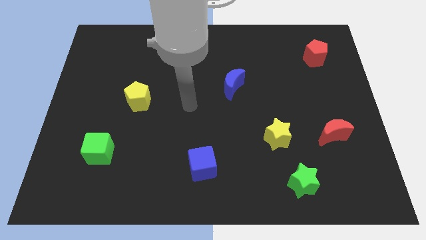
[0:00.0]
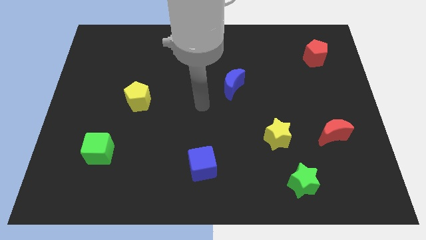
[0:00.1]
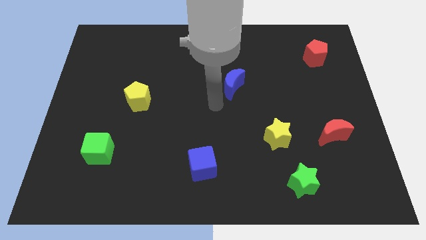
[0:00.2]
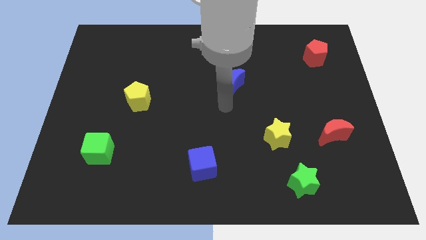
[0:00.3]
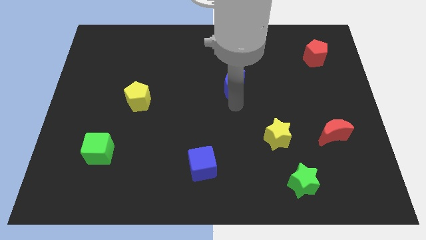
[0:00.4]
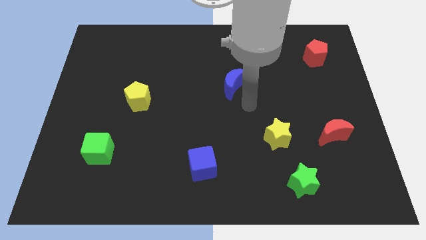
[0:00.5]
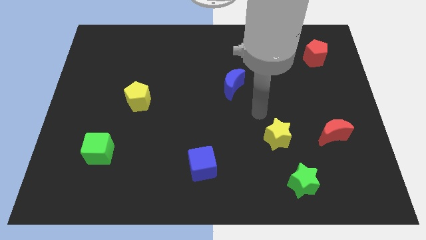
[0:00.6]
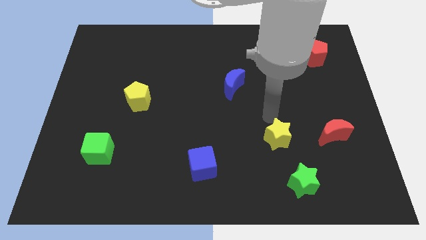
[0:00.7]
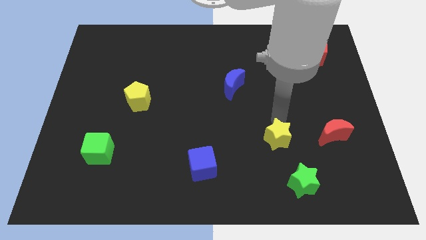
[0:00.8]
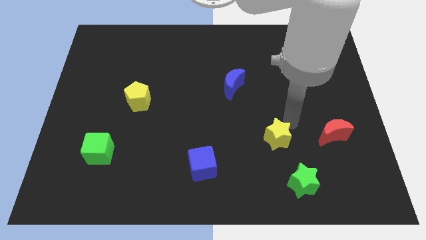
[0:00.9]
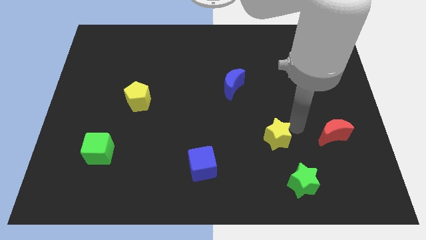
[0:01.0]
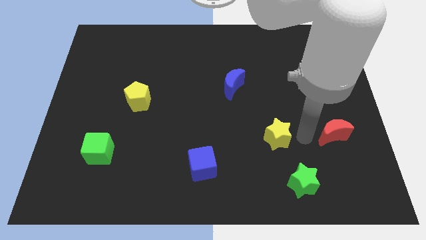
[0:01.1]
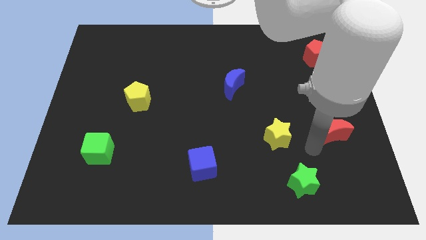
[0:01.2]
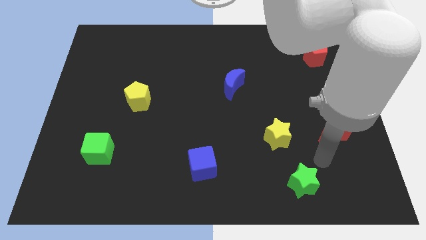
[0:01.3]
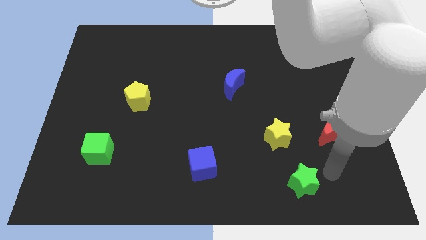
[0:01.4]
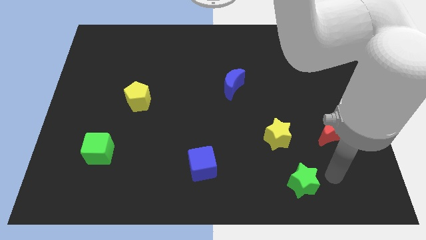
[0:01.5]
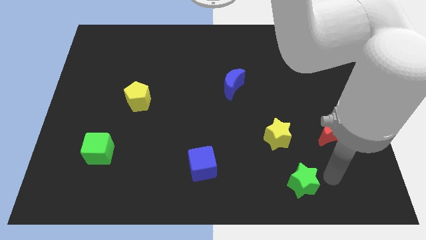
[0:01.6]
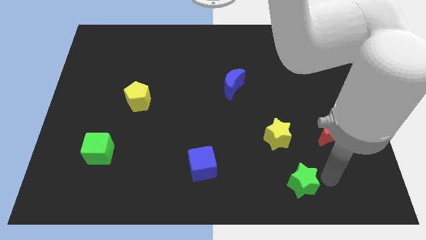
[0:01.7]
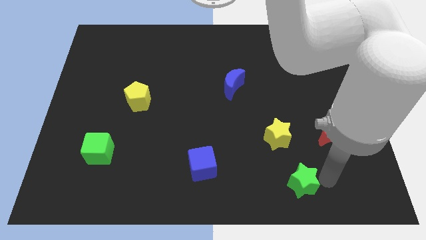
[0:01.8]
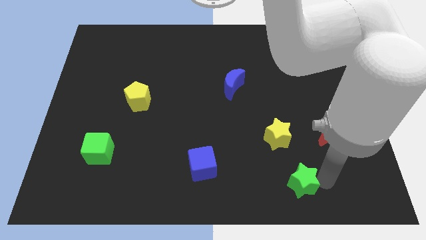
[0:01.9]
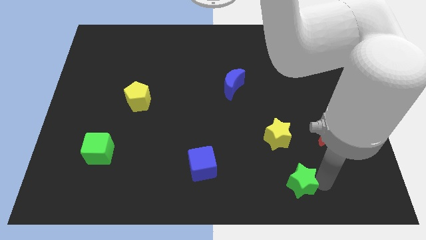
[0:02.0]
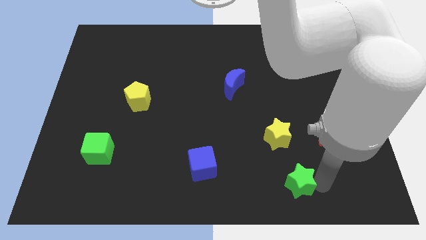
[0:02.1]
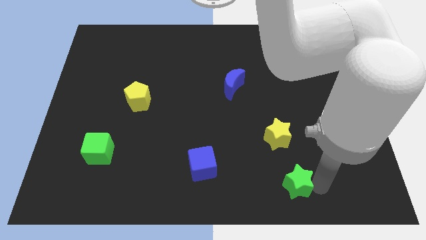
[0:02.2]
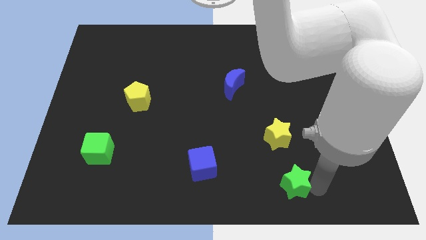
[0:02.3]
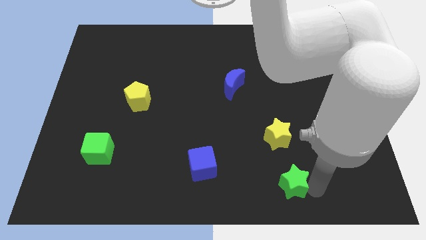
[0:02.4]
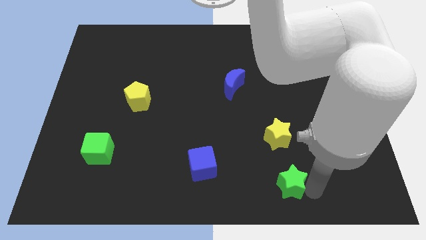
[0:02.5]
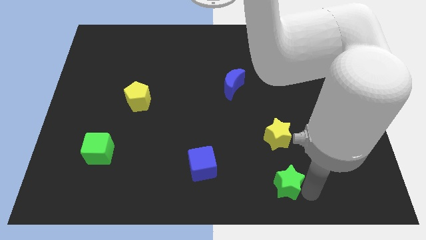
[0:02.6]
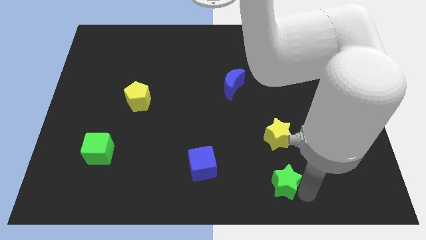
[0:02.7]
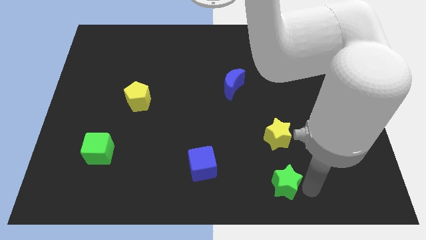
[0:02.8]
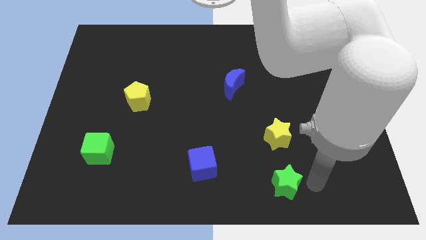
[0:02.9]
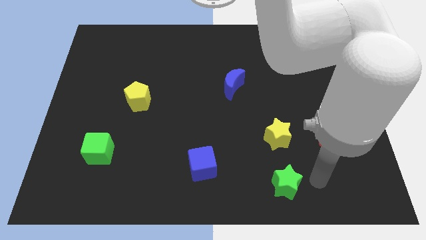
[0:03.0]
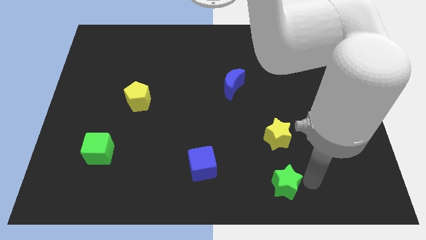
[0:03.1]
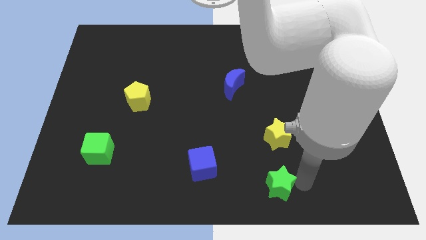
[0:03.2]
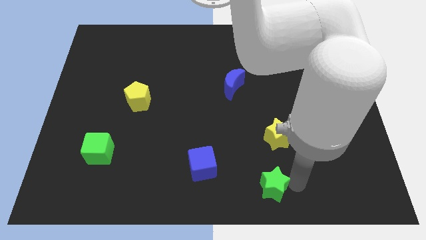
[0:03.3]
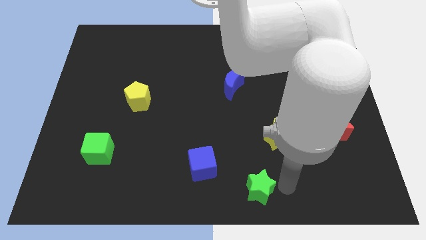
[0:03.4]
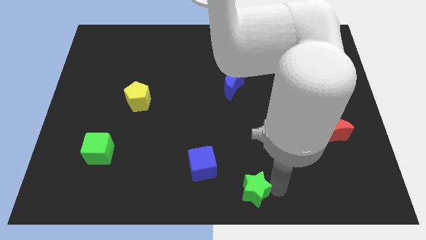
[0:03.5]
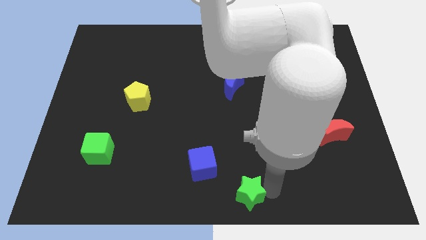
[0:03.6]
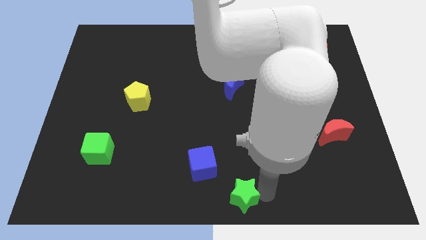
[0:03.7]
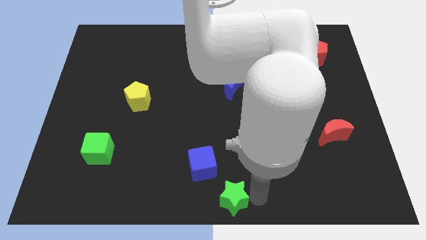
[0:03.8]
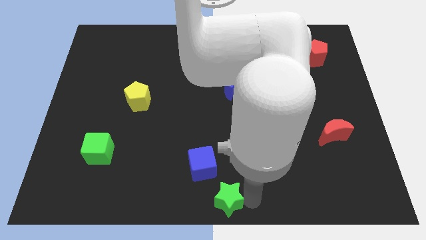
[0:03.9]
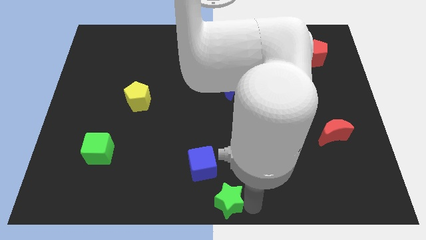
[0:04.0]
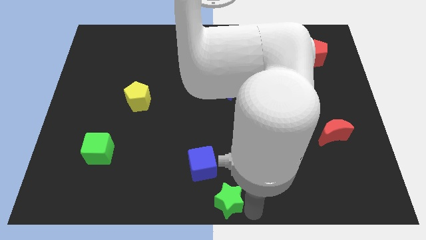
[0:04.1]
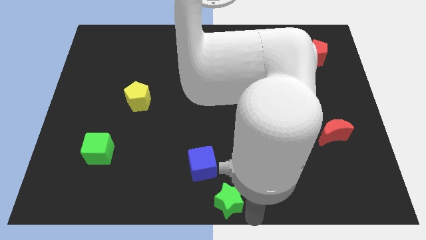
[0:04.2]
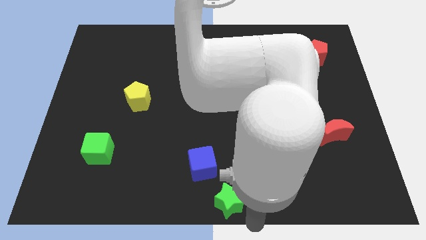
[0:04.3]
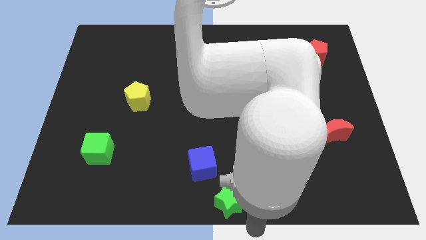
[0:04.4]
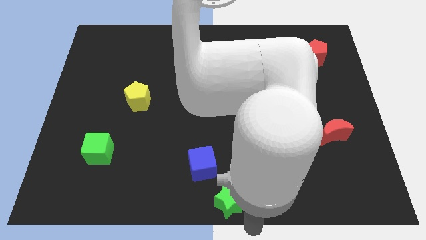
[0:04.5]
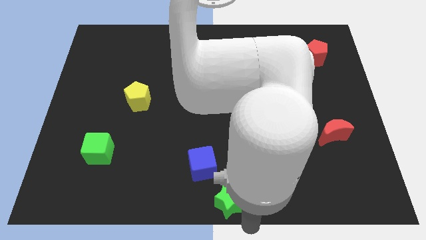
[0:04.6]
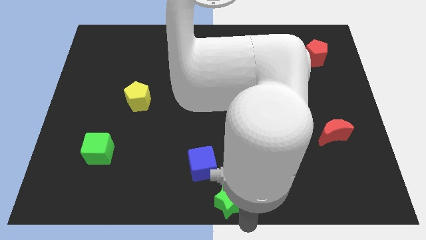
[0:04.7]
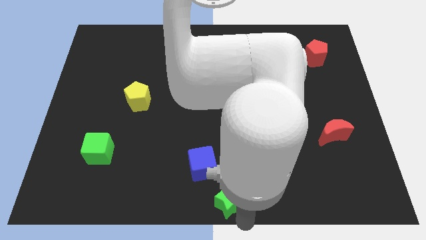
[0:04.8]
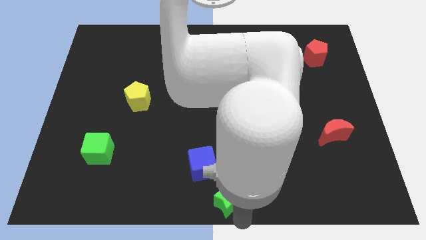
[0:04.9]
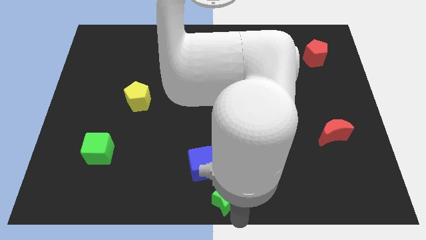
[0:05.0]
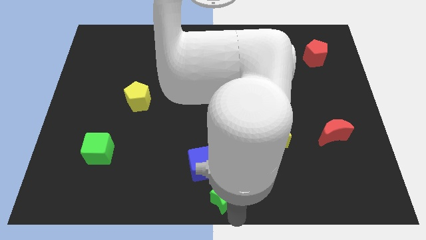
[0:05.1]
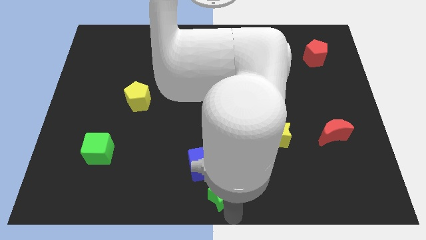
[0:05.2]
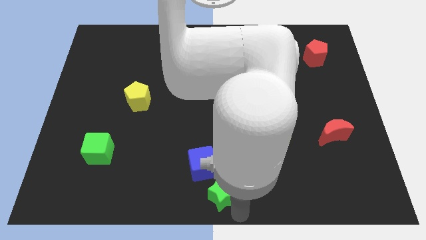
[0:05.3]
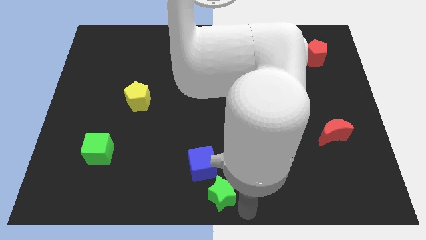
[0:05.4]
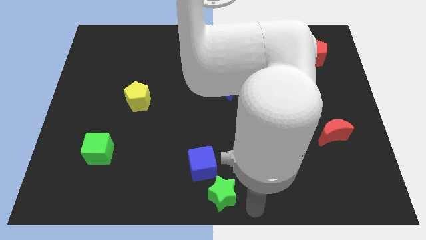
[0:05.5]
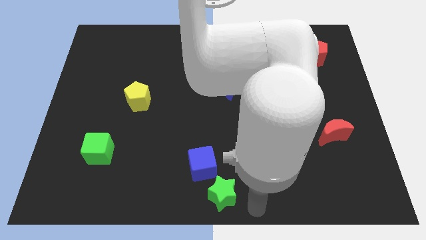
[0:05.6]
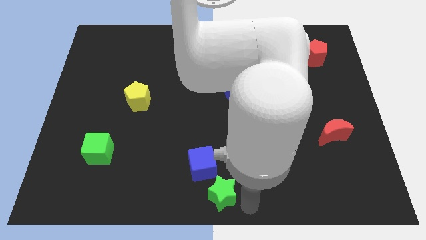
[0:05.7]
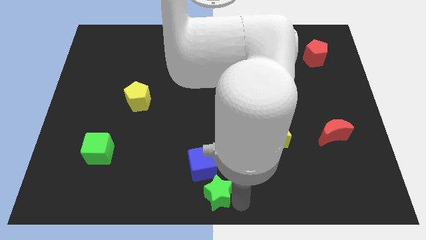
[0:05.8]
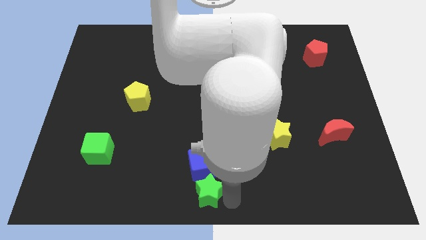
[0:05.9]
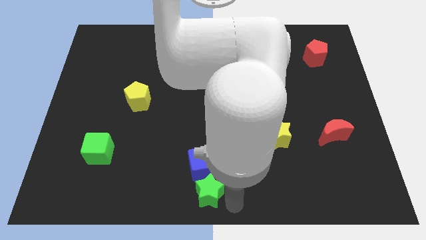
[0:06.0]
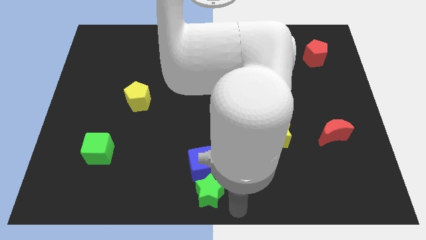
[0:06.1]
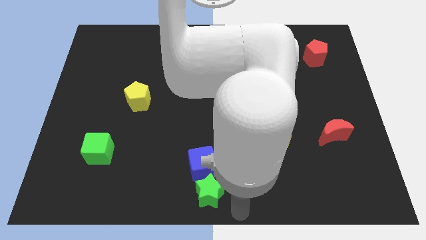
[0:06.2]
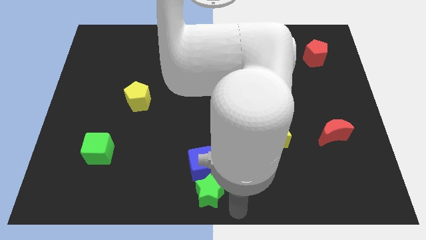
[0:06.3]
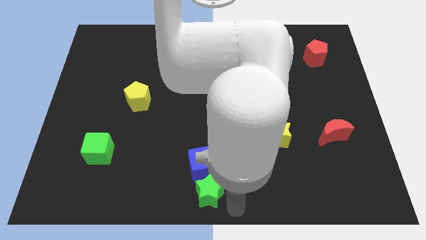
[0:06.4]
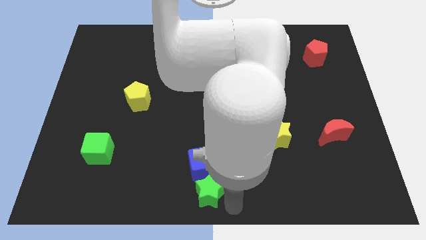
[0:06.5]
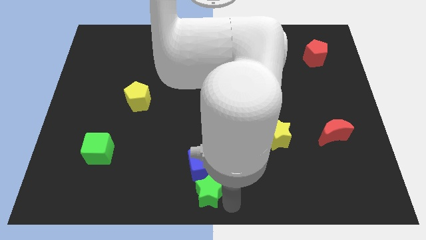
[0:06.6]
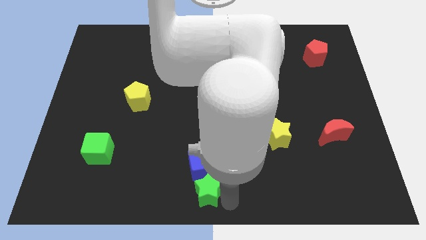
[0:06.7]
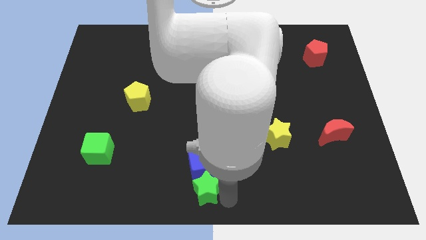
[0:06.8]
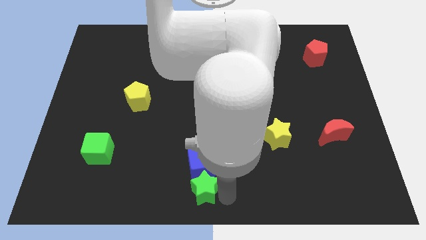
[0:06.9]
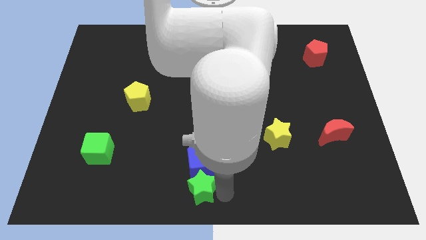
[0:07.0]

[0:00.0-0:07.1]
slide the green star to the left

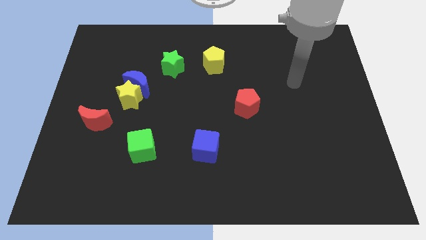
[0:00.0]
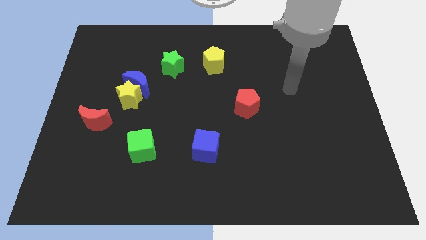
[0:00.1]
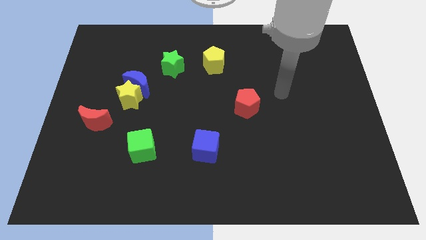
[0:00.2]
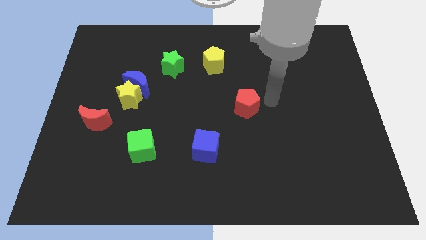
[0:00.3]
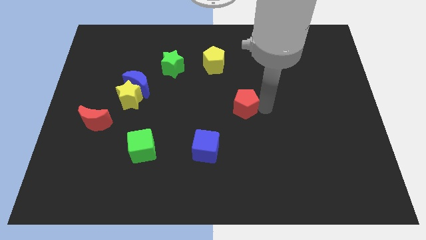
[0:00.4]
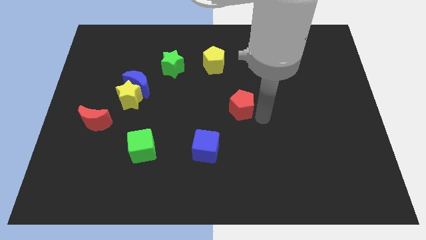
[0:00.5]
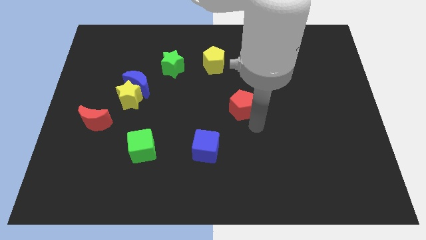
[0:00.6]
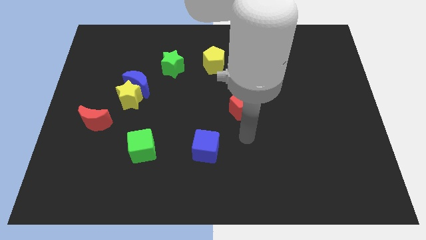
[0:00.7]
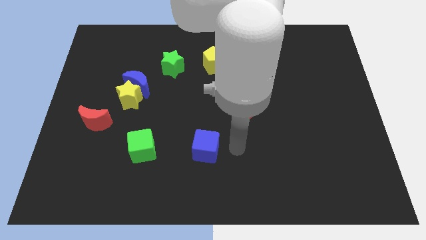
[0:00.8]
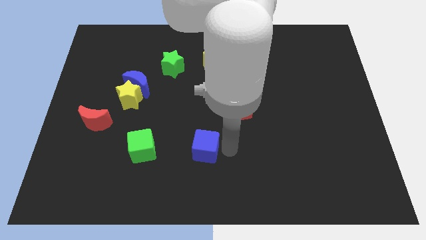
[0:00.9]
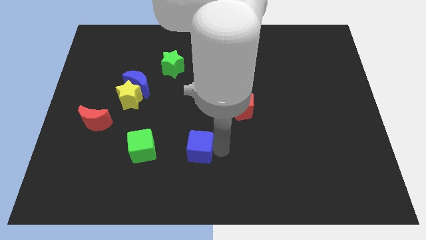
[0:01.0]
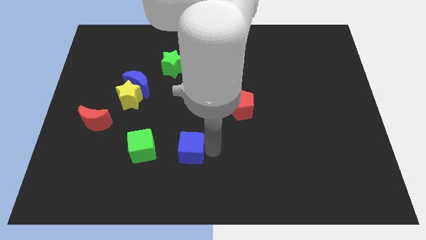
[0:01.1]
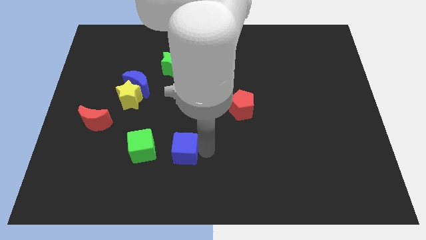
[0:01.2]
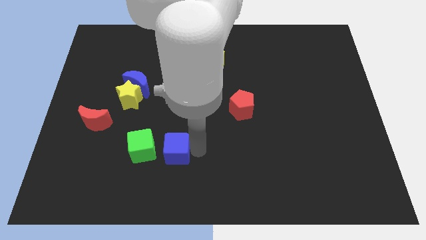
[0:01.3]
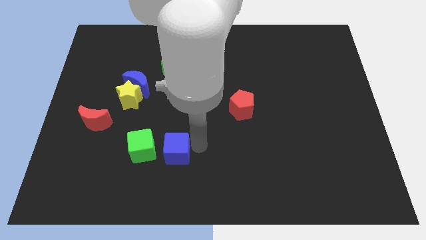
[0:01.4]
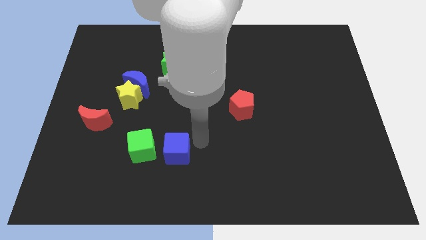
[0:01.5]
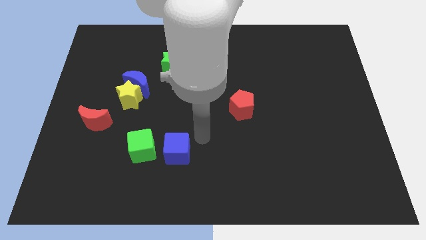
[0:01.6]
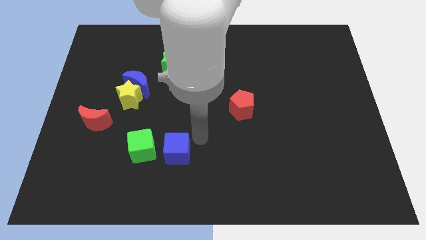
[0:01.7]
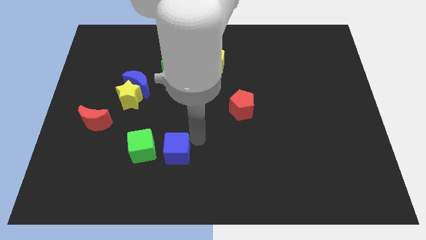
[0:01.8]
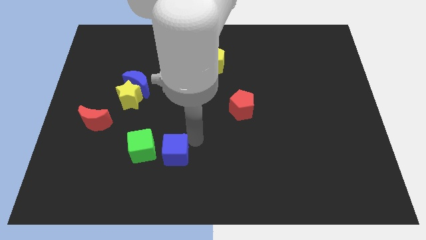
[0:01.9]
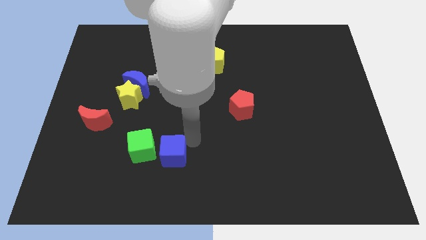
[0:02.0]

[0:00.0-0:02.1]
slightly slide the blue cube left
